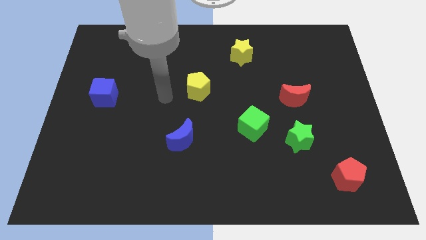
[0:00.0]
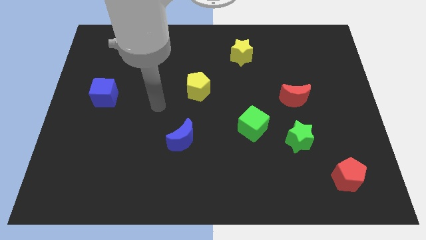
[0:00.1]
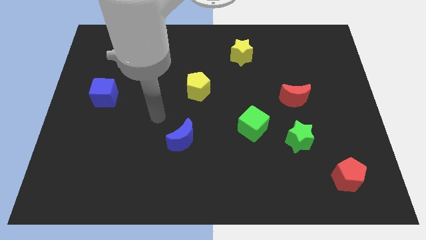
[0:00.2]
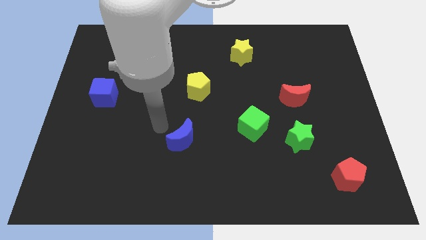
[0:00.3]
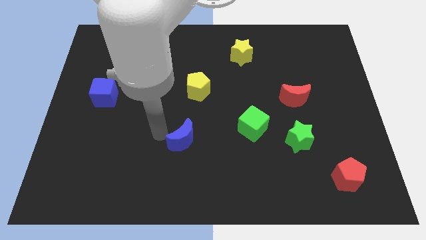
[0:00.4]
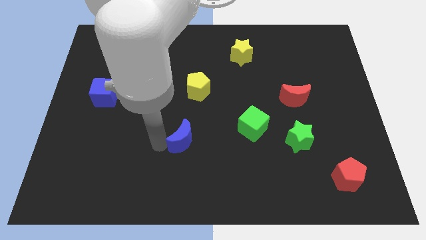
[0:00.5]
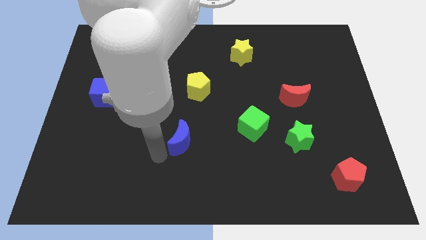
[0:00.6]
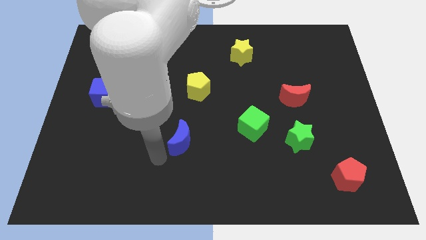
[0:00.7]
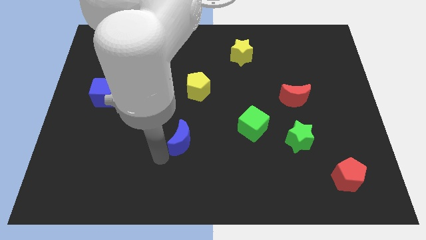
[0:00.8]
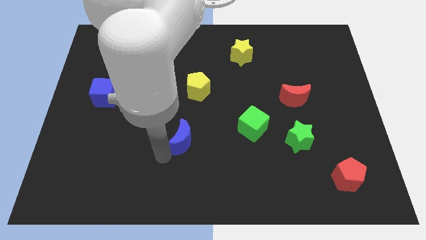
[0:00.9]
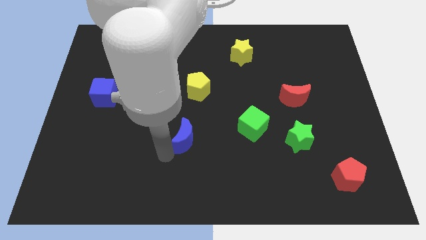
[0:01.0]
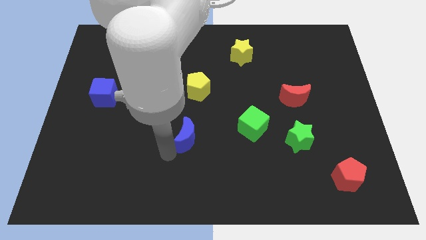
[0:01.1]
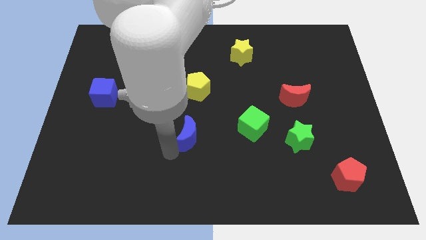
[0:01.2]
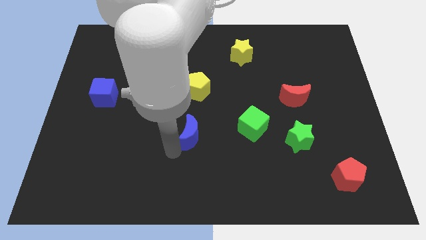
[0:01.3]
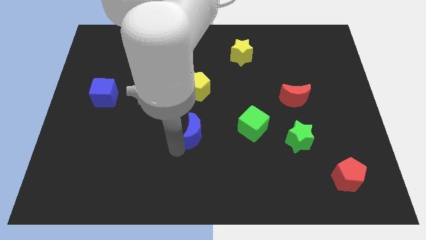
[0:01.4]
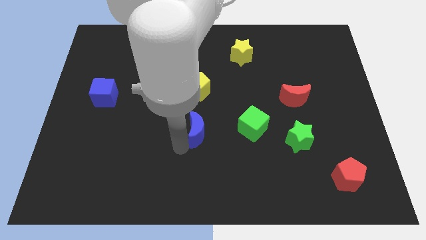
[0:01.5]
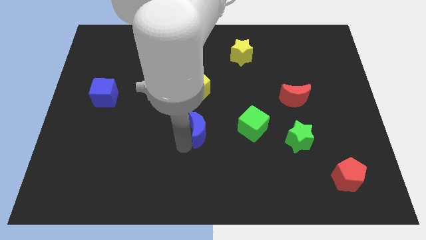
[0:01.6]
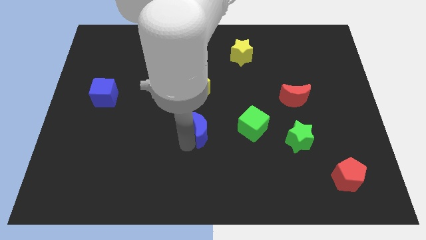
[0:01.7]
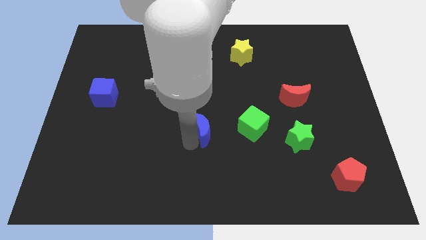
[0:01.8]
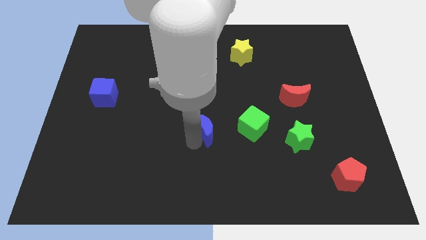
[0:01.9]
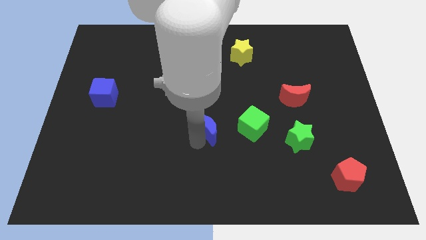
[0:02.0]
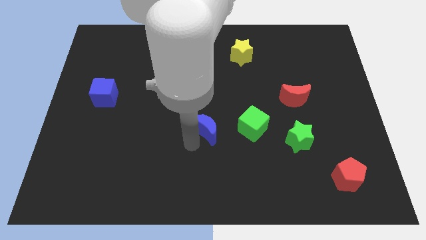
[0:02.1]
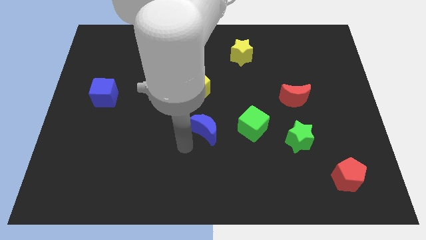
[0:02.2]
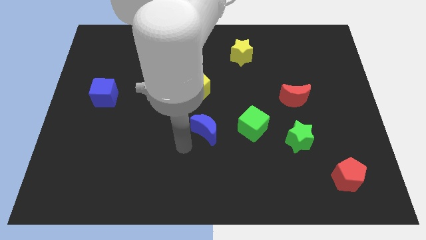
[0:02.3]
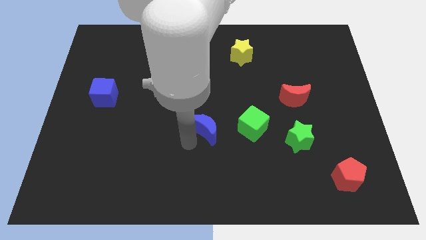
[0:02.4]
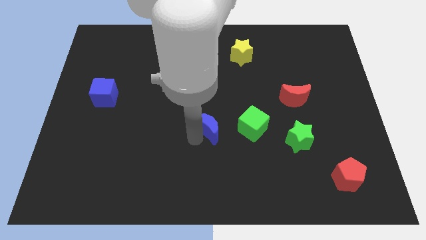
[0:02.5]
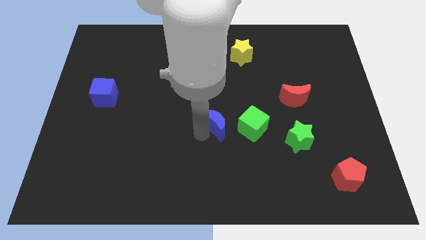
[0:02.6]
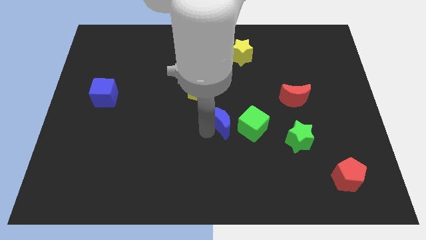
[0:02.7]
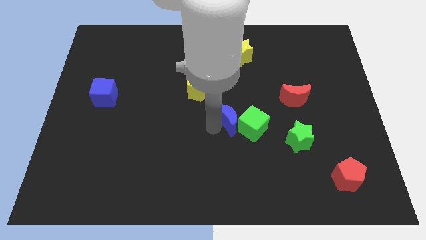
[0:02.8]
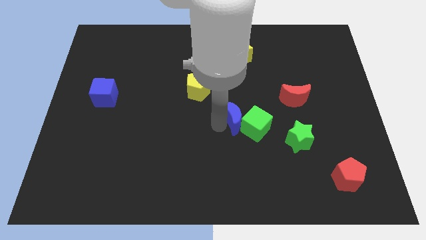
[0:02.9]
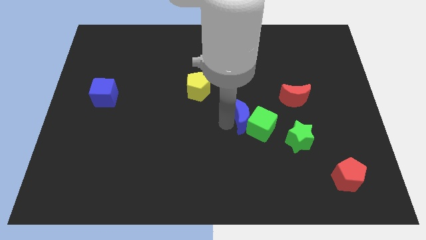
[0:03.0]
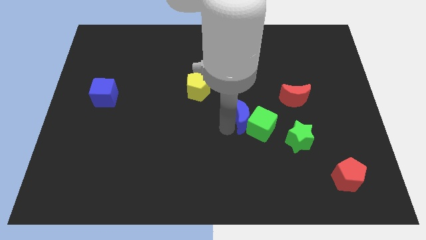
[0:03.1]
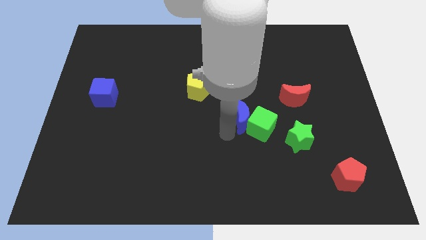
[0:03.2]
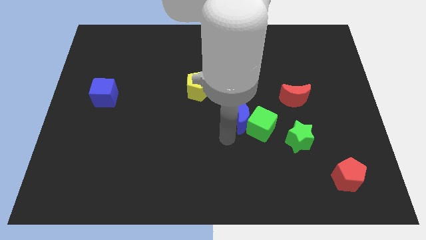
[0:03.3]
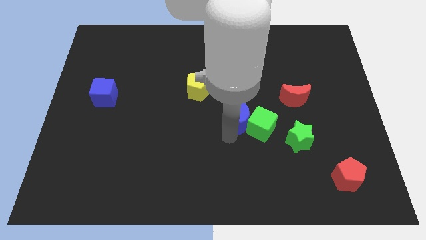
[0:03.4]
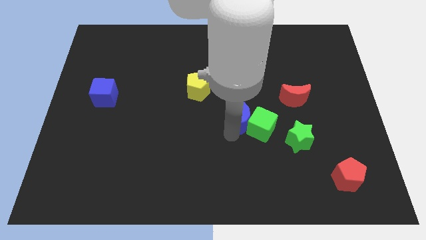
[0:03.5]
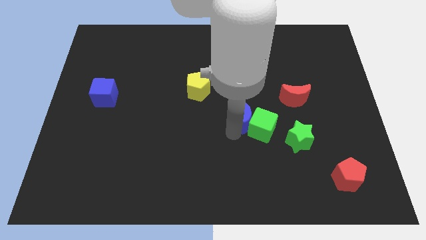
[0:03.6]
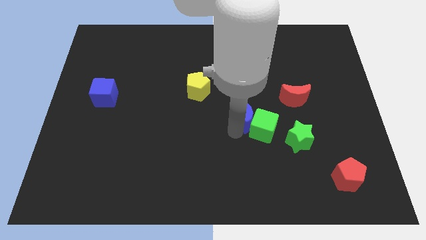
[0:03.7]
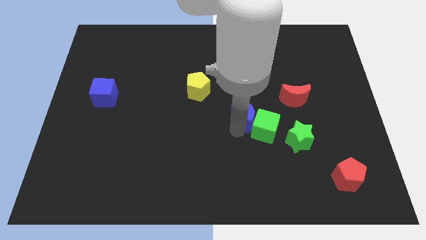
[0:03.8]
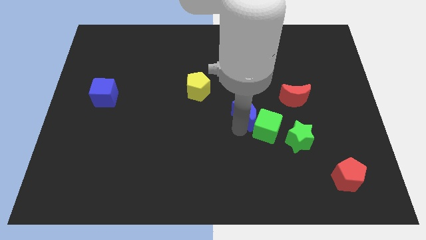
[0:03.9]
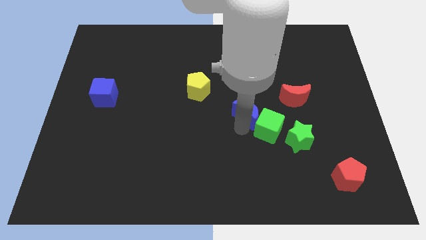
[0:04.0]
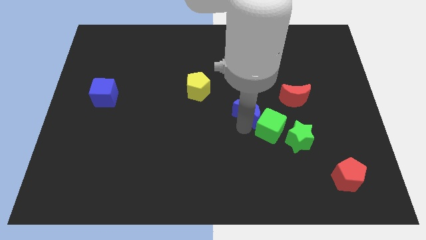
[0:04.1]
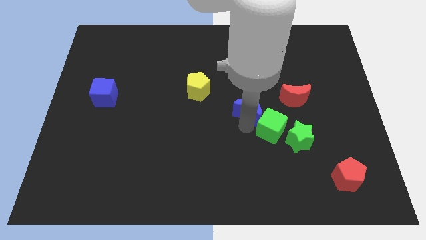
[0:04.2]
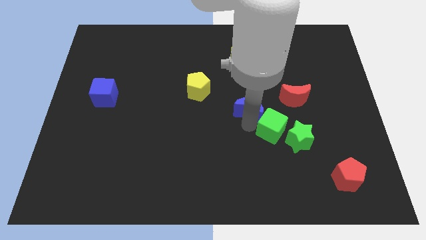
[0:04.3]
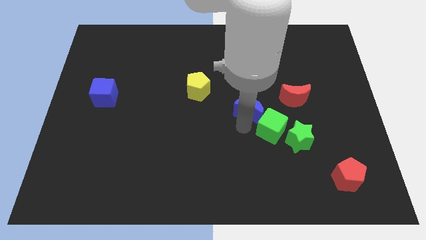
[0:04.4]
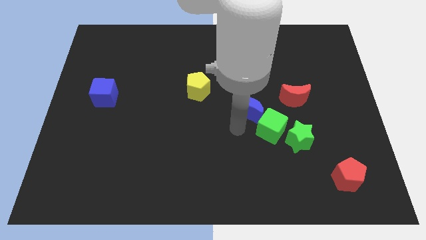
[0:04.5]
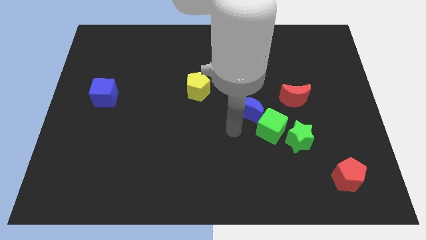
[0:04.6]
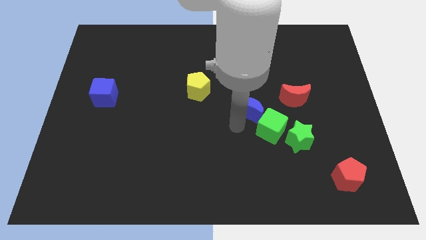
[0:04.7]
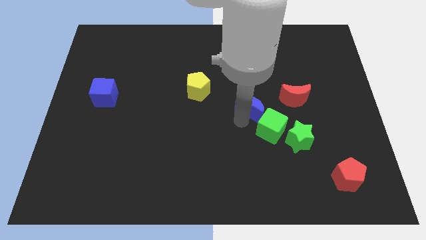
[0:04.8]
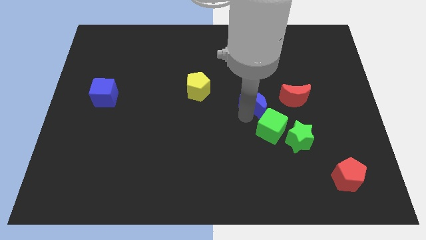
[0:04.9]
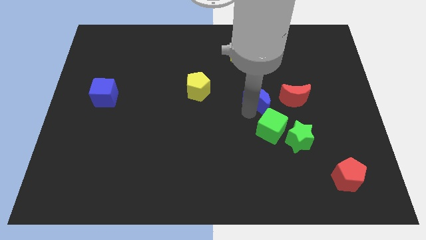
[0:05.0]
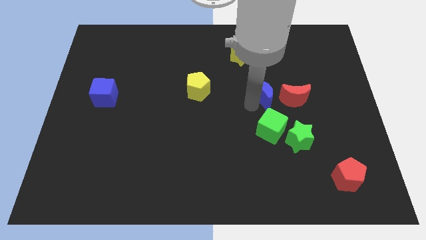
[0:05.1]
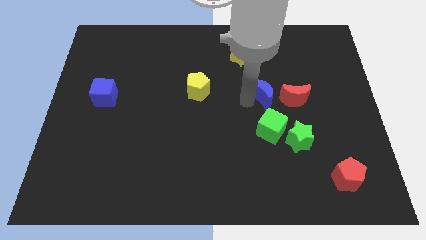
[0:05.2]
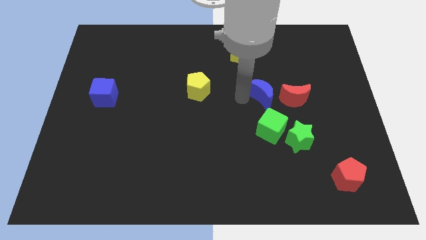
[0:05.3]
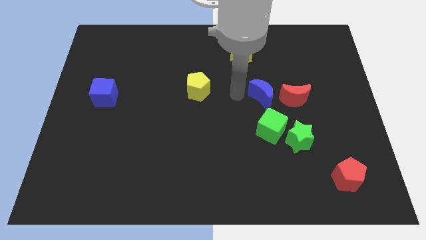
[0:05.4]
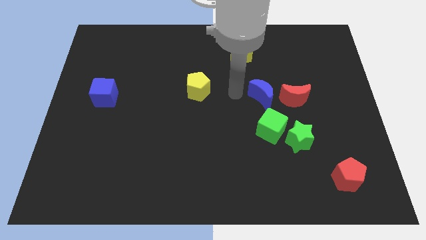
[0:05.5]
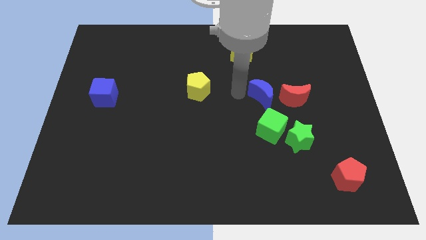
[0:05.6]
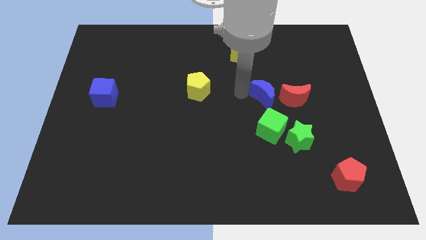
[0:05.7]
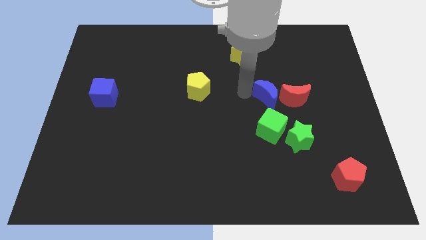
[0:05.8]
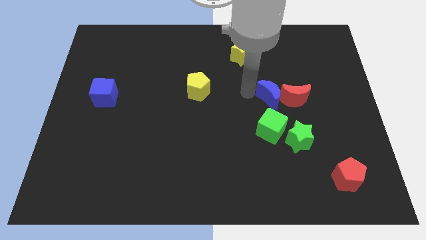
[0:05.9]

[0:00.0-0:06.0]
slide the blue moon close to the red moon

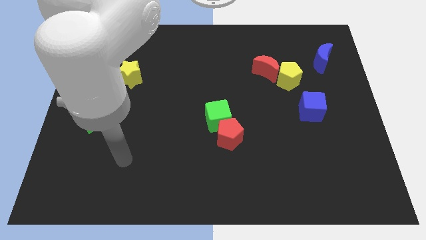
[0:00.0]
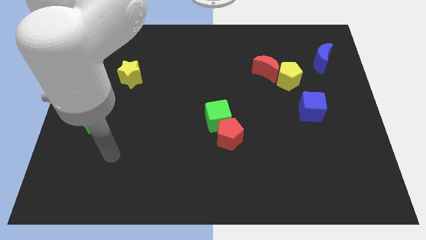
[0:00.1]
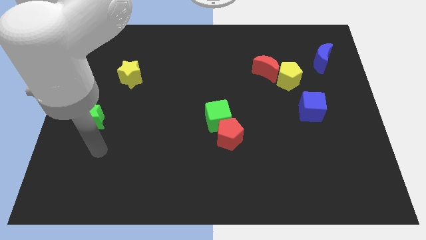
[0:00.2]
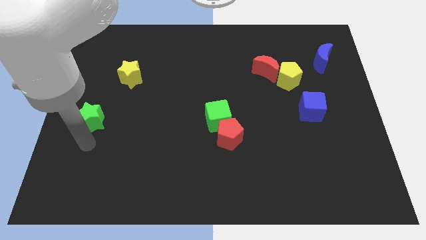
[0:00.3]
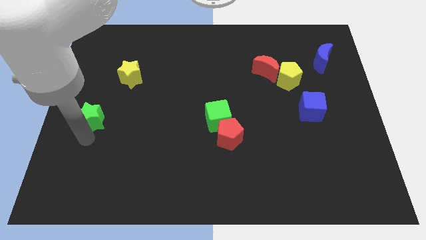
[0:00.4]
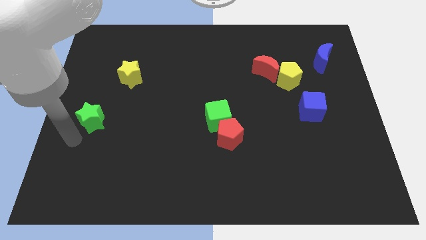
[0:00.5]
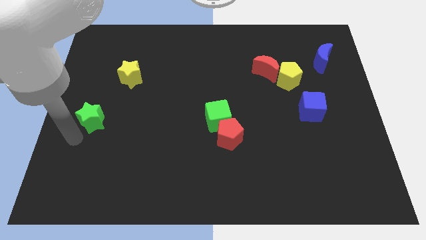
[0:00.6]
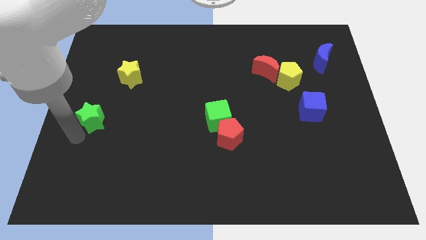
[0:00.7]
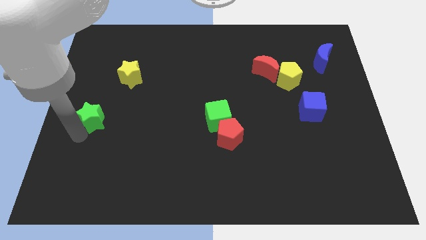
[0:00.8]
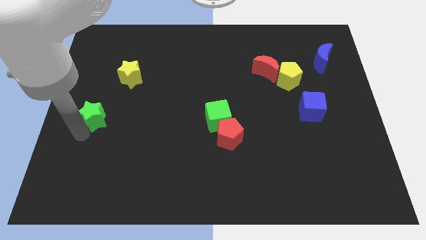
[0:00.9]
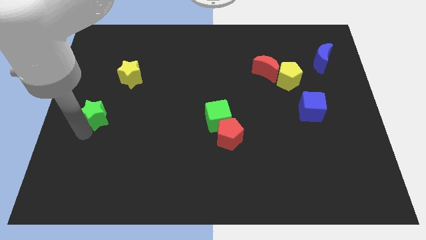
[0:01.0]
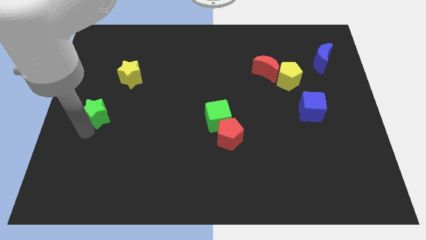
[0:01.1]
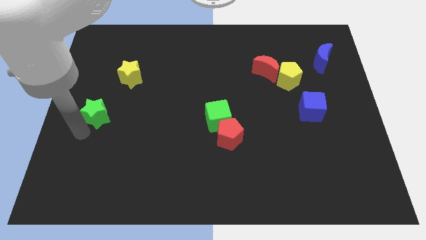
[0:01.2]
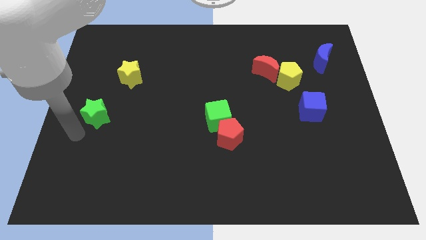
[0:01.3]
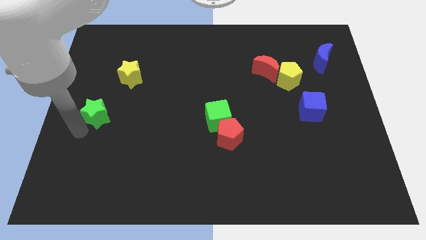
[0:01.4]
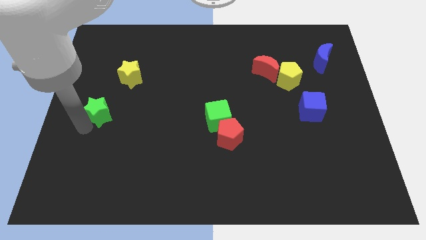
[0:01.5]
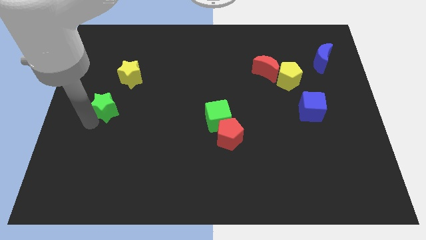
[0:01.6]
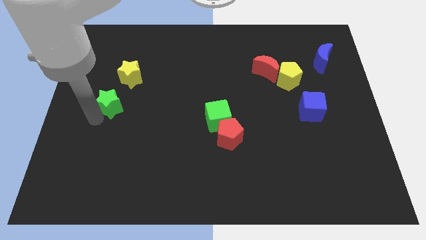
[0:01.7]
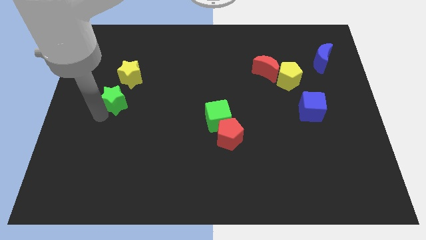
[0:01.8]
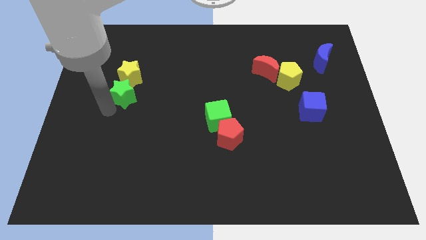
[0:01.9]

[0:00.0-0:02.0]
slide the green star close to the yellow star
